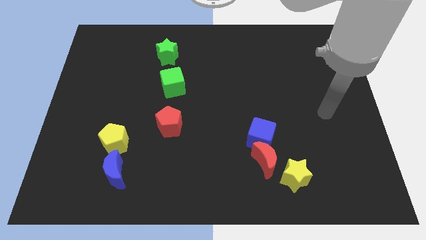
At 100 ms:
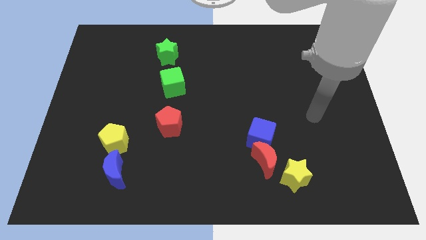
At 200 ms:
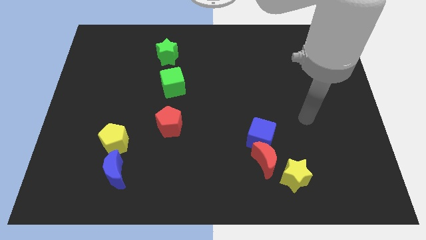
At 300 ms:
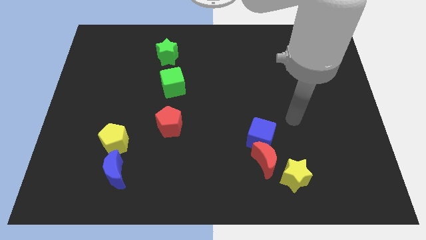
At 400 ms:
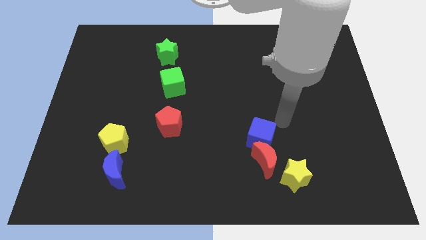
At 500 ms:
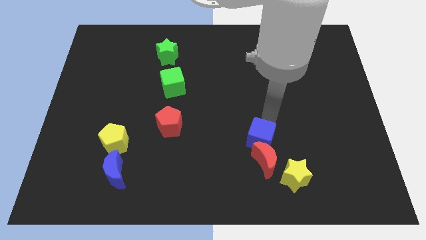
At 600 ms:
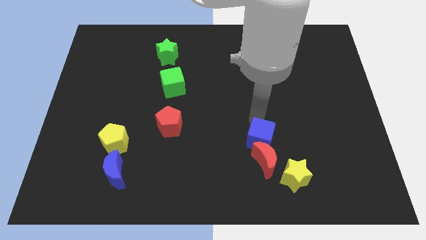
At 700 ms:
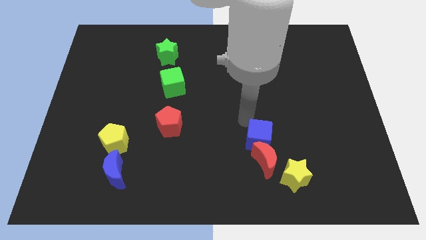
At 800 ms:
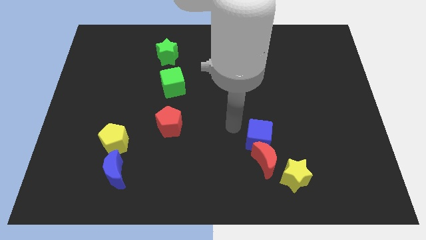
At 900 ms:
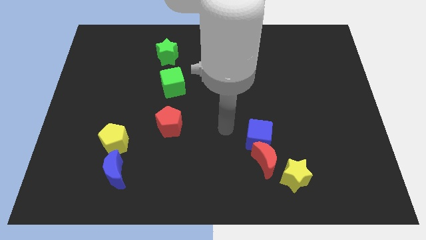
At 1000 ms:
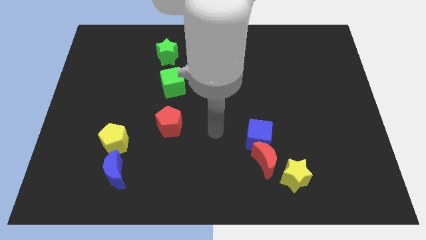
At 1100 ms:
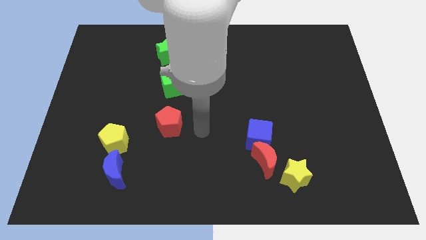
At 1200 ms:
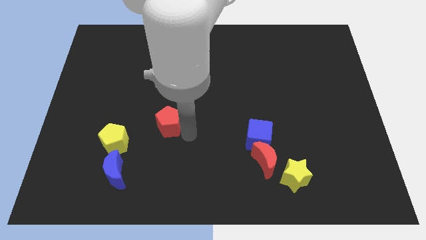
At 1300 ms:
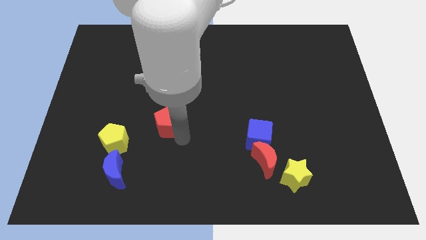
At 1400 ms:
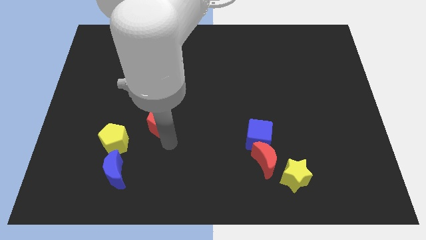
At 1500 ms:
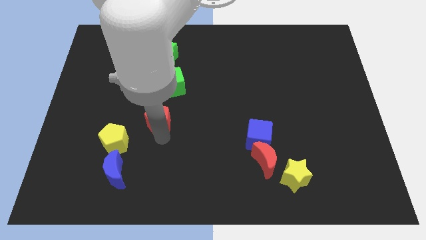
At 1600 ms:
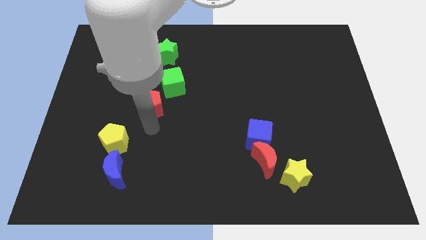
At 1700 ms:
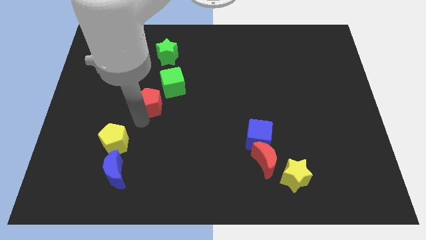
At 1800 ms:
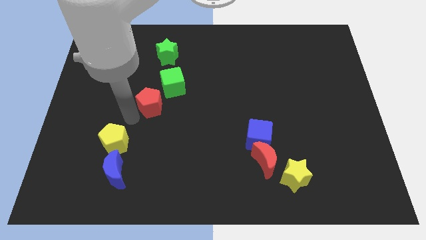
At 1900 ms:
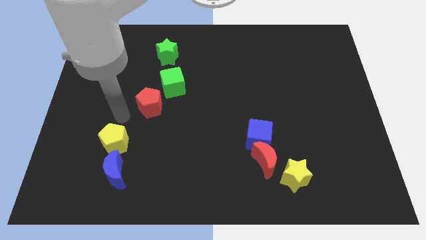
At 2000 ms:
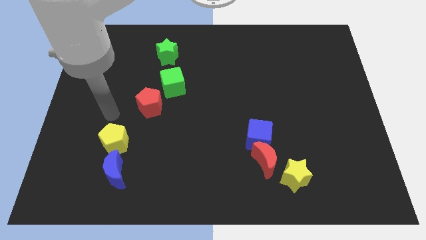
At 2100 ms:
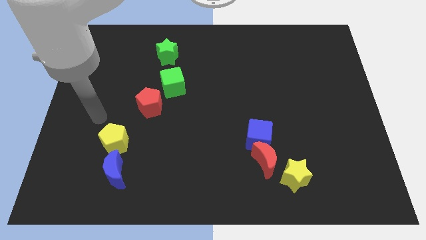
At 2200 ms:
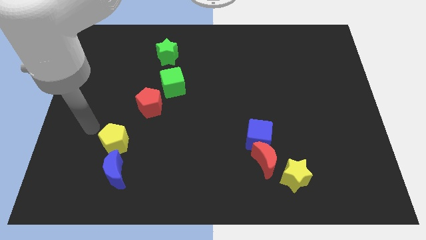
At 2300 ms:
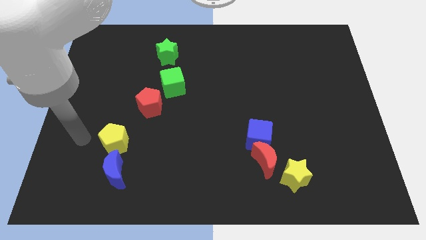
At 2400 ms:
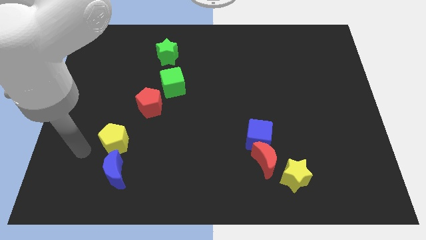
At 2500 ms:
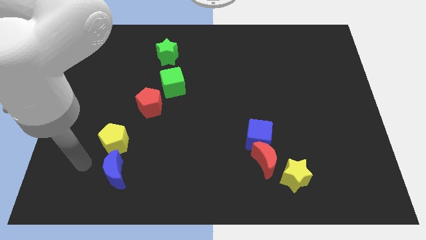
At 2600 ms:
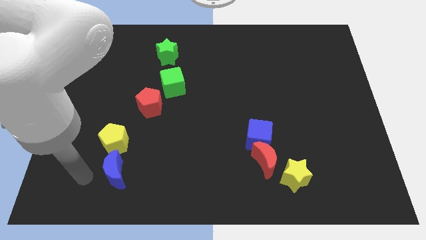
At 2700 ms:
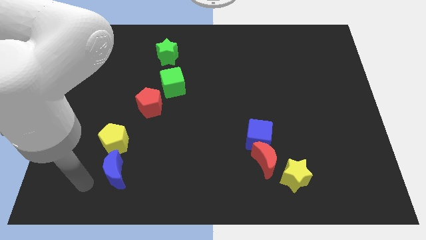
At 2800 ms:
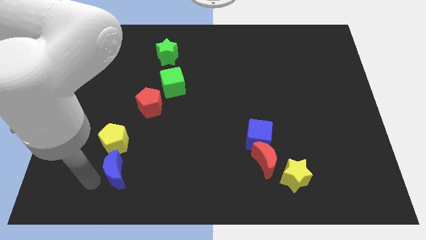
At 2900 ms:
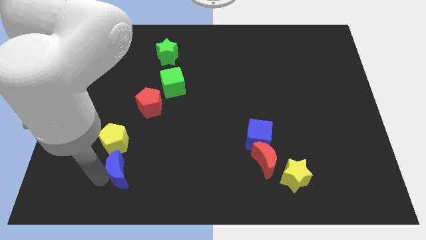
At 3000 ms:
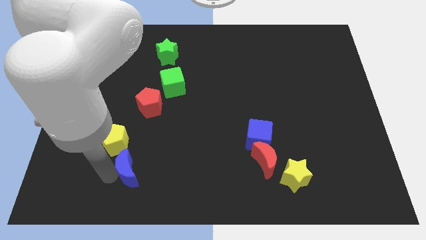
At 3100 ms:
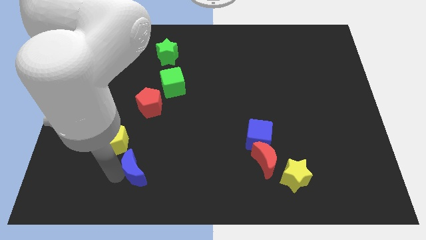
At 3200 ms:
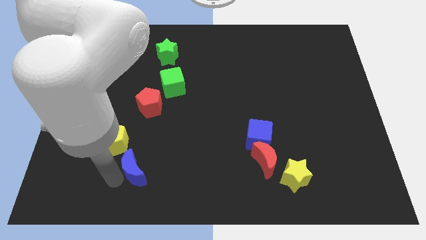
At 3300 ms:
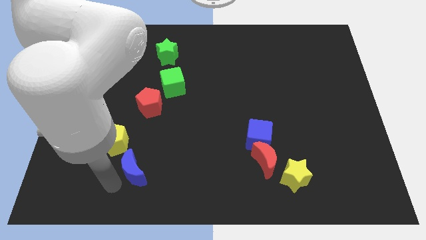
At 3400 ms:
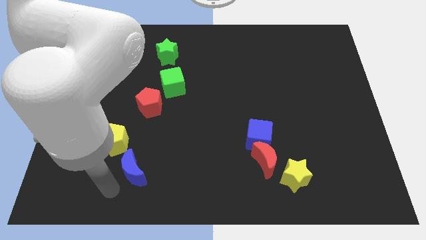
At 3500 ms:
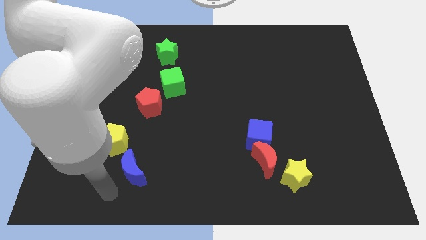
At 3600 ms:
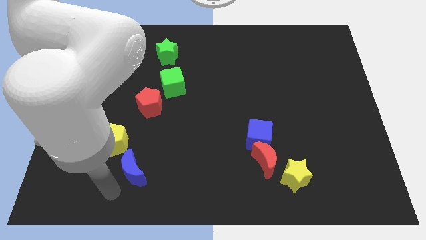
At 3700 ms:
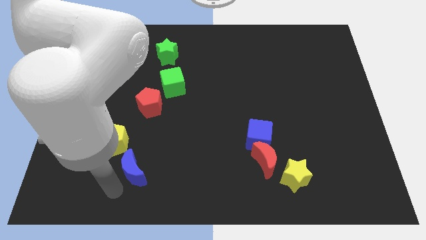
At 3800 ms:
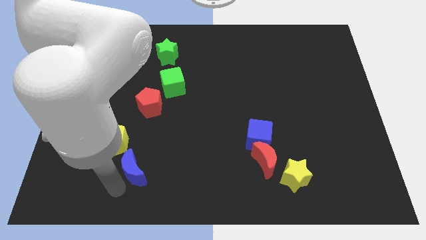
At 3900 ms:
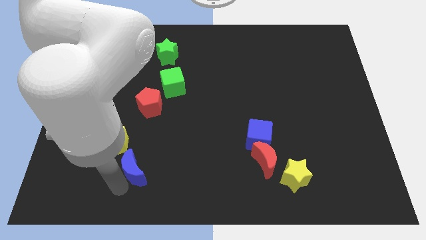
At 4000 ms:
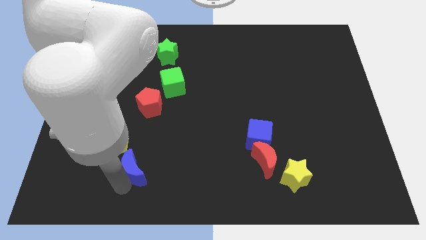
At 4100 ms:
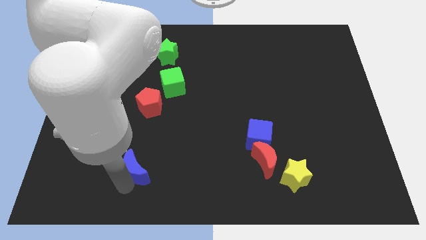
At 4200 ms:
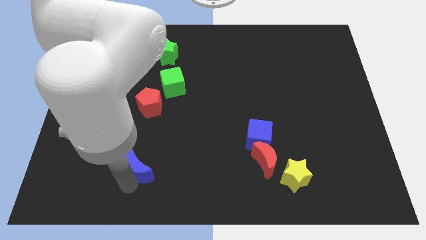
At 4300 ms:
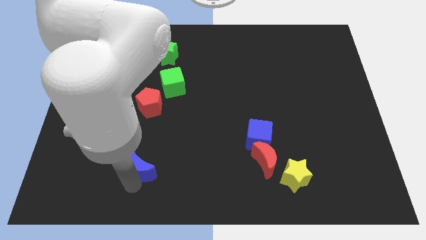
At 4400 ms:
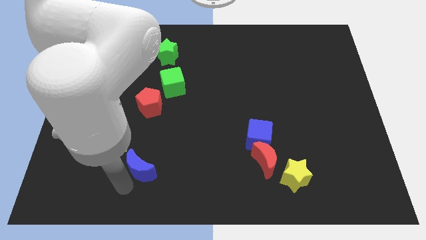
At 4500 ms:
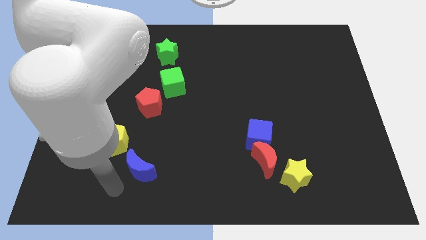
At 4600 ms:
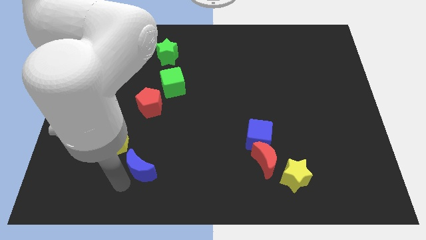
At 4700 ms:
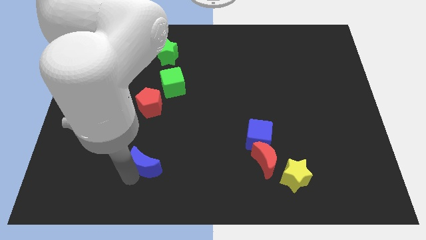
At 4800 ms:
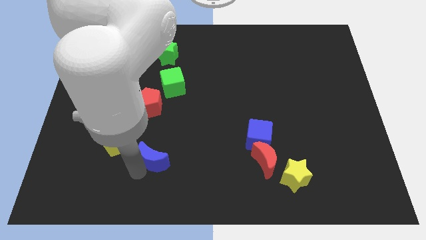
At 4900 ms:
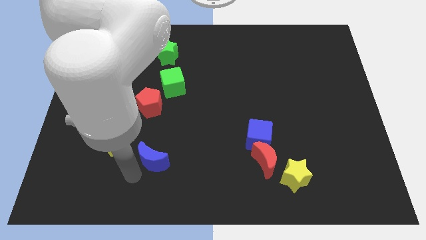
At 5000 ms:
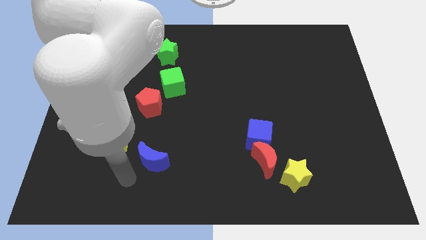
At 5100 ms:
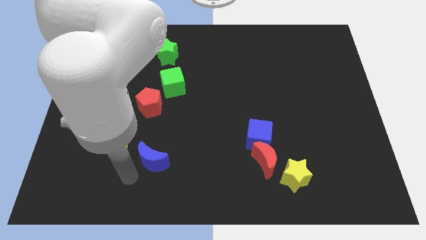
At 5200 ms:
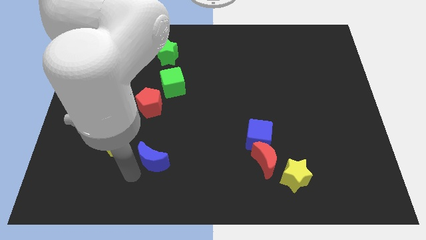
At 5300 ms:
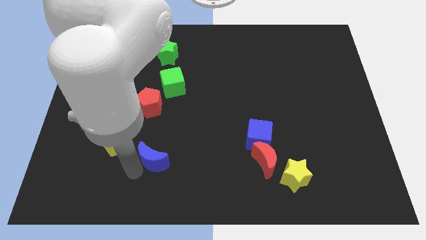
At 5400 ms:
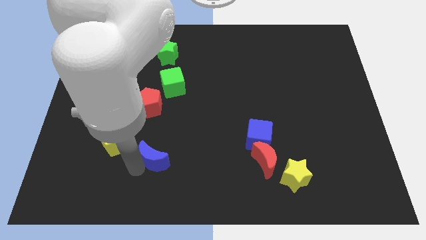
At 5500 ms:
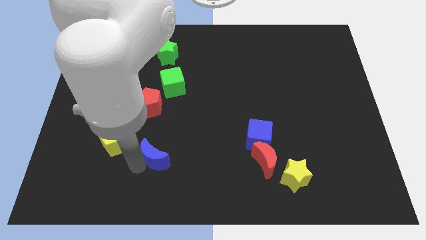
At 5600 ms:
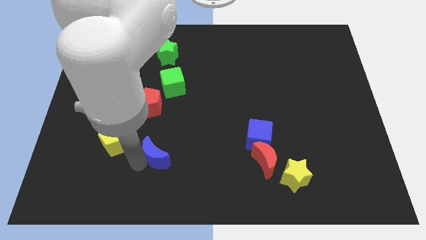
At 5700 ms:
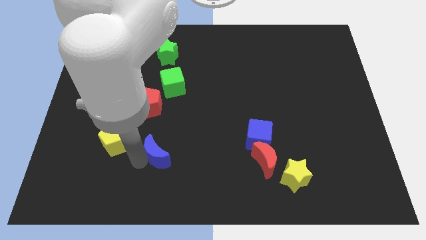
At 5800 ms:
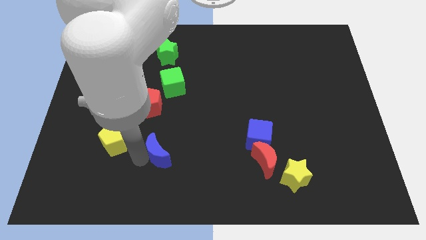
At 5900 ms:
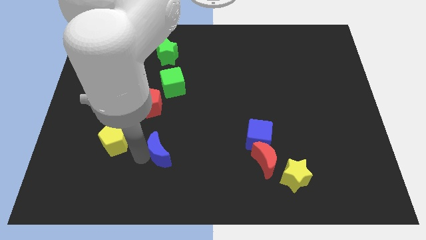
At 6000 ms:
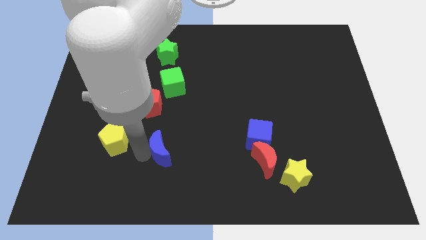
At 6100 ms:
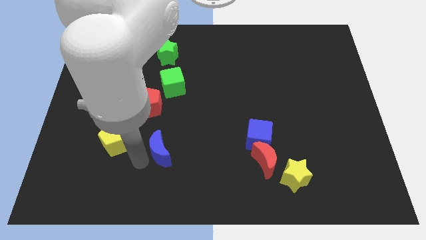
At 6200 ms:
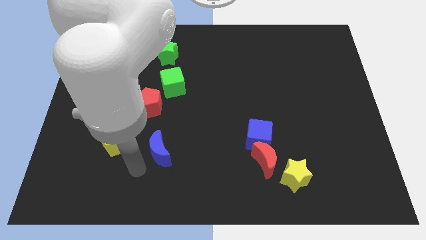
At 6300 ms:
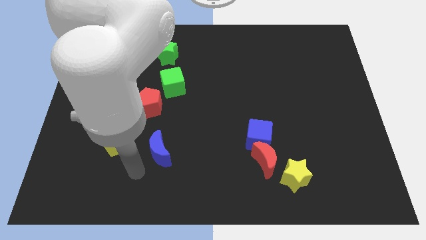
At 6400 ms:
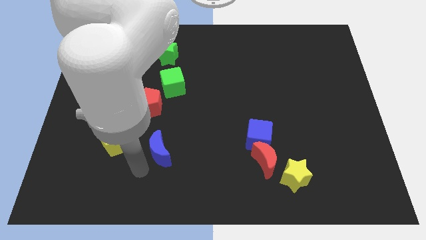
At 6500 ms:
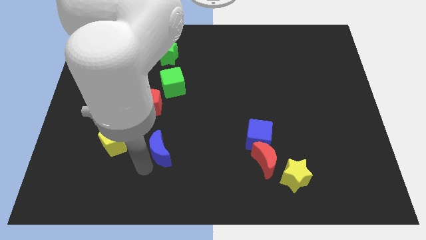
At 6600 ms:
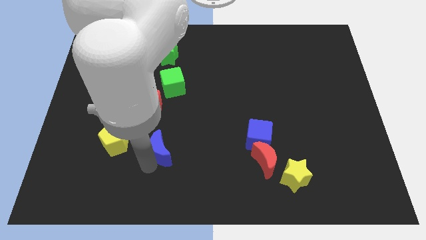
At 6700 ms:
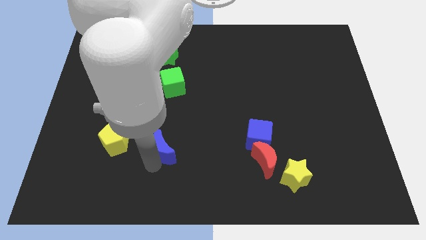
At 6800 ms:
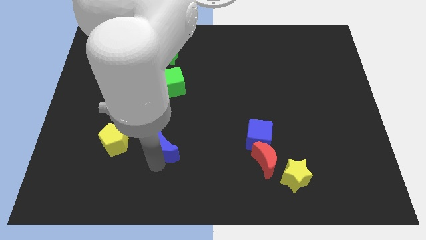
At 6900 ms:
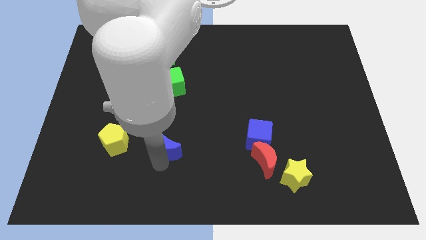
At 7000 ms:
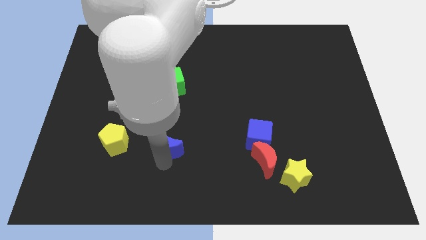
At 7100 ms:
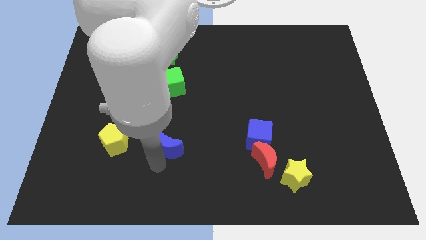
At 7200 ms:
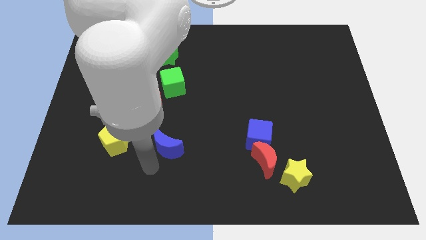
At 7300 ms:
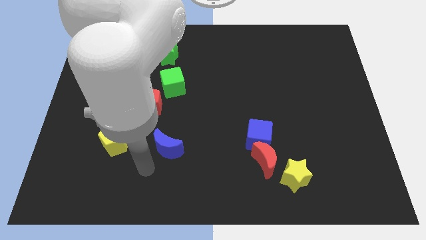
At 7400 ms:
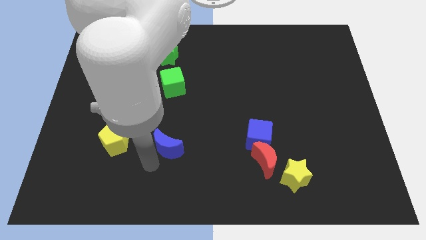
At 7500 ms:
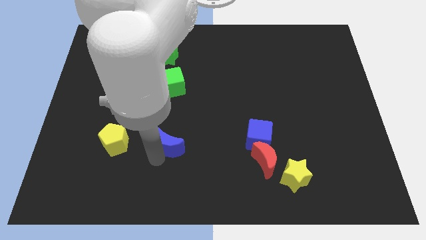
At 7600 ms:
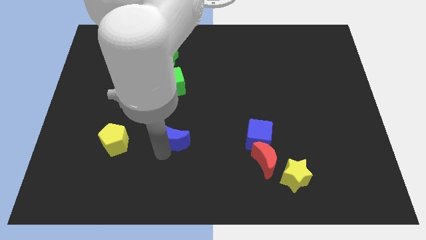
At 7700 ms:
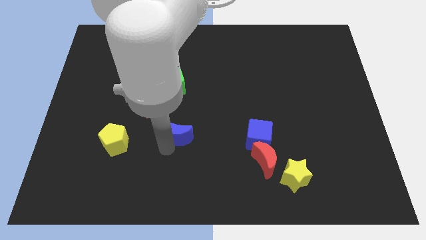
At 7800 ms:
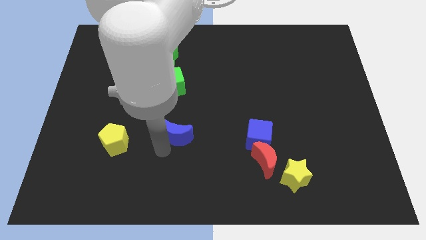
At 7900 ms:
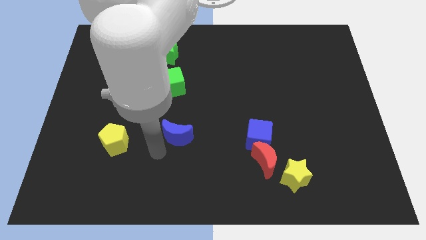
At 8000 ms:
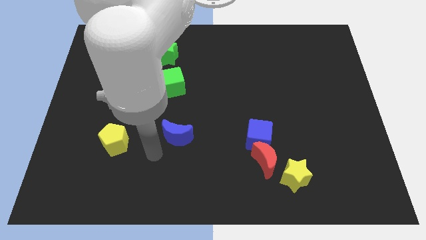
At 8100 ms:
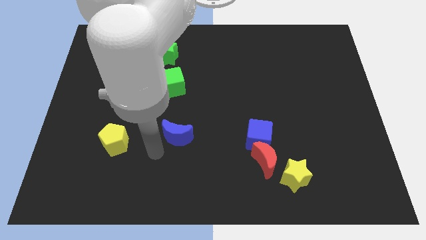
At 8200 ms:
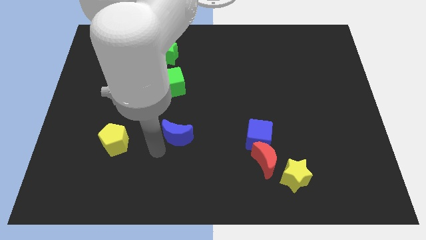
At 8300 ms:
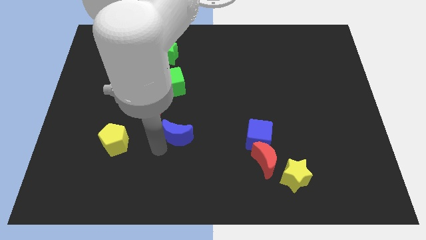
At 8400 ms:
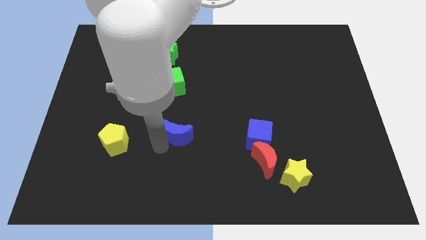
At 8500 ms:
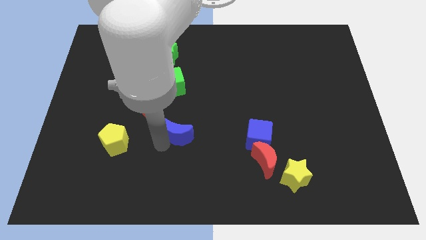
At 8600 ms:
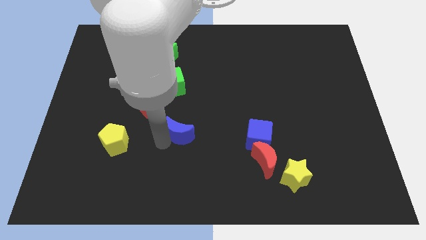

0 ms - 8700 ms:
slide the blue moon to the center of the board
